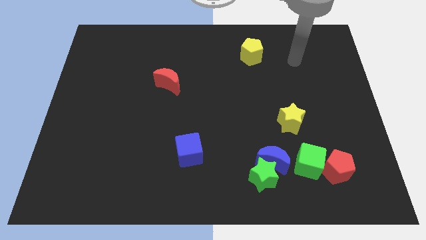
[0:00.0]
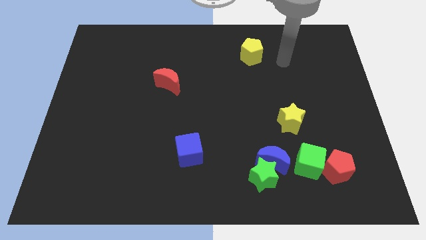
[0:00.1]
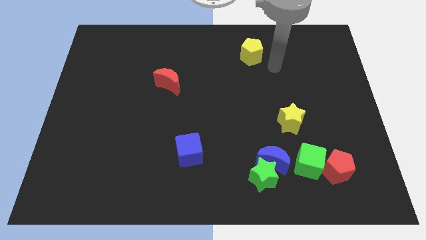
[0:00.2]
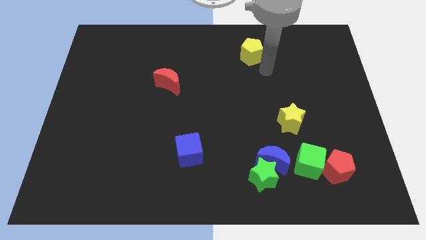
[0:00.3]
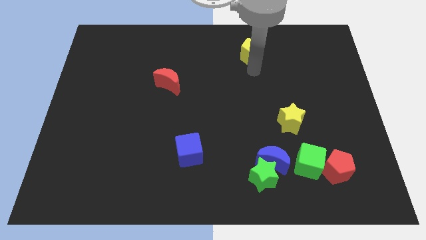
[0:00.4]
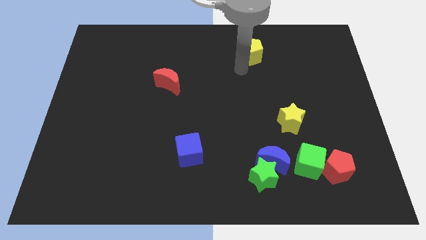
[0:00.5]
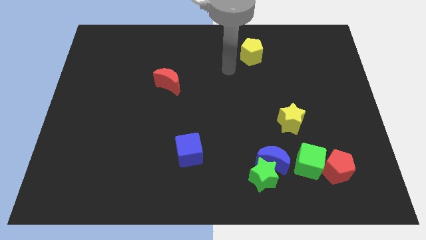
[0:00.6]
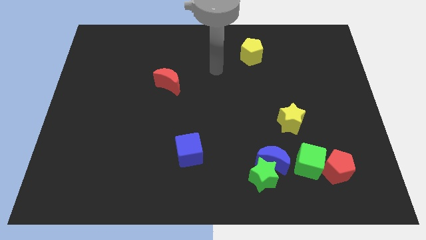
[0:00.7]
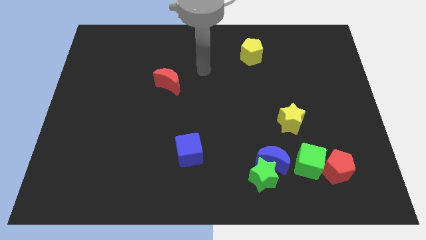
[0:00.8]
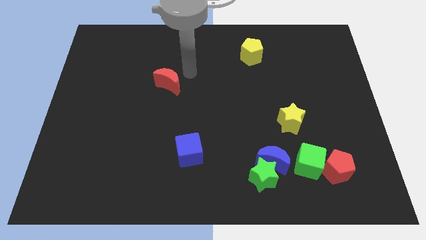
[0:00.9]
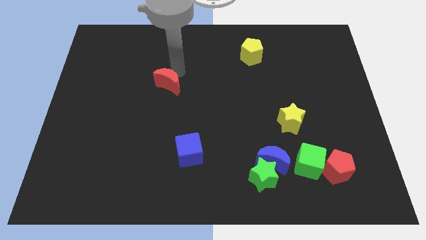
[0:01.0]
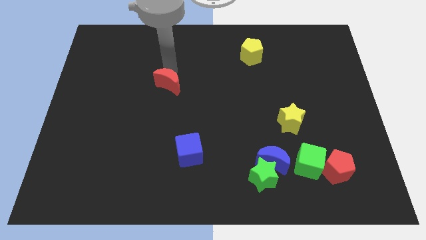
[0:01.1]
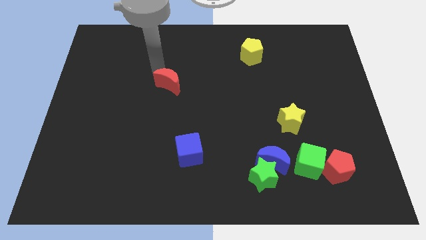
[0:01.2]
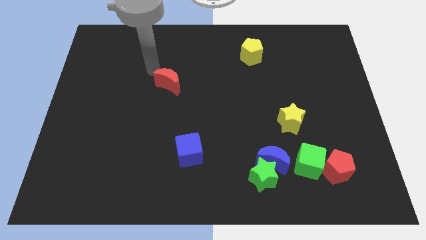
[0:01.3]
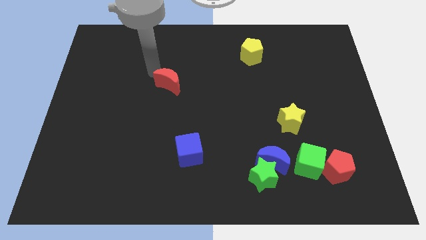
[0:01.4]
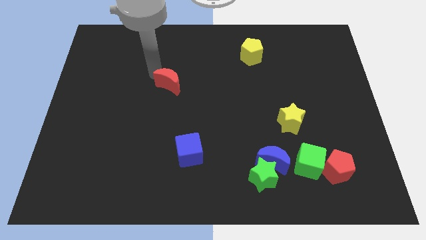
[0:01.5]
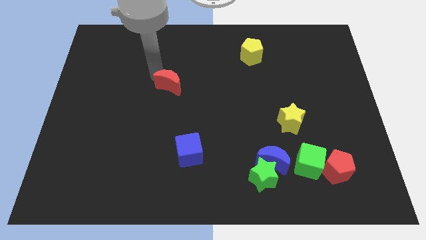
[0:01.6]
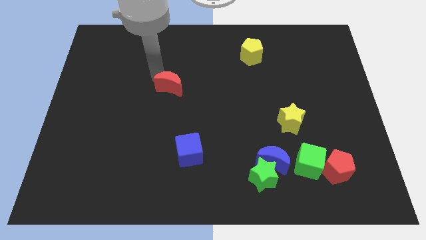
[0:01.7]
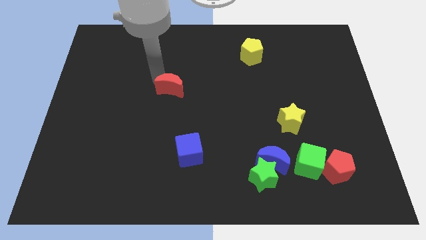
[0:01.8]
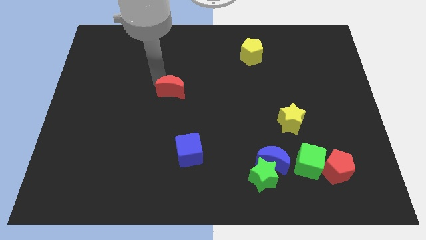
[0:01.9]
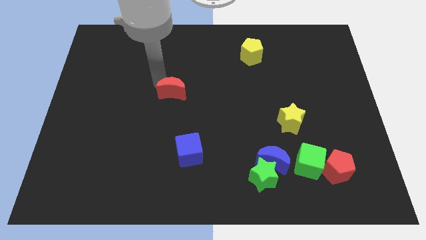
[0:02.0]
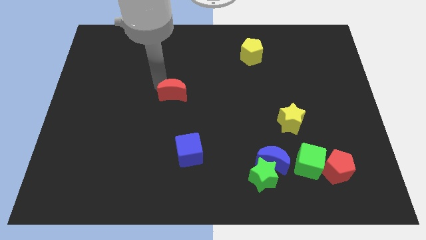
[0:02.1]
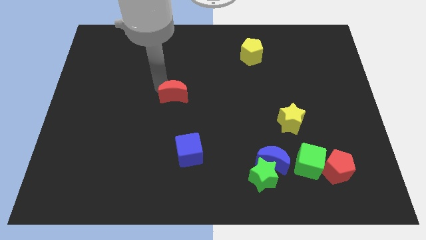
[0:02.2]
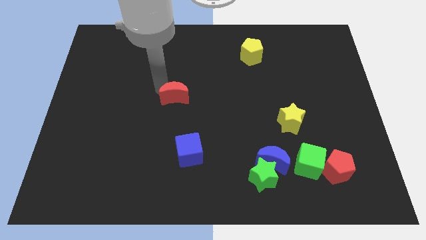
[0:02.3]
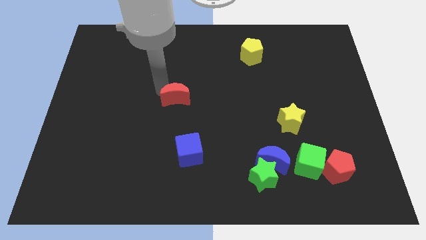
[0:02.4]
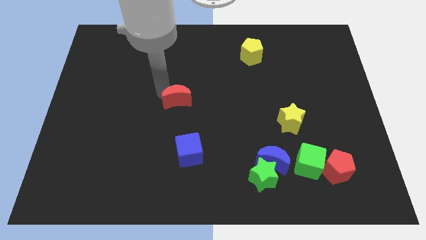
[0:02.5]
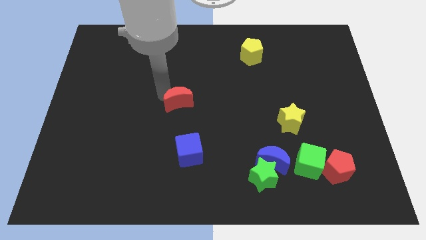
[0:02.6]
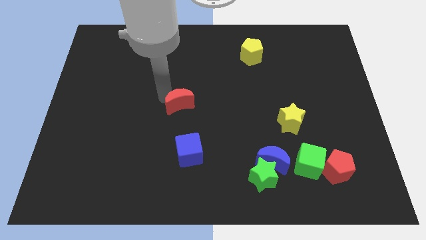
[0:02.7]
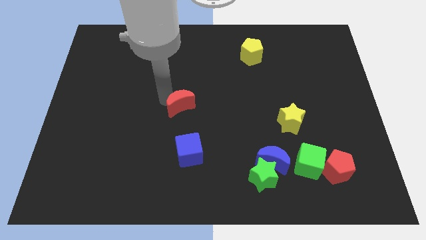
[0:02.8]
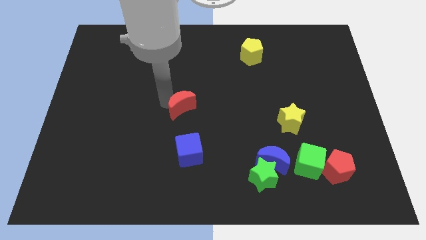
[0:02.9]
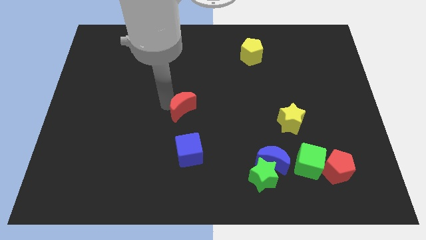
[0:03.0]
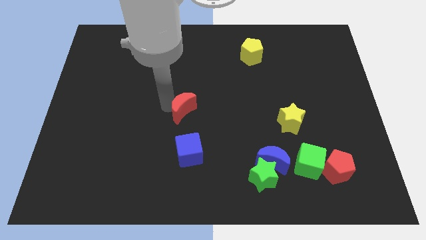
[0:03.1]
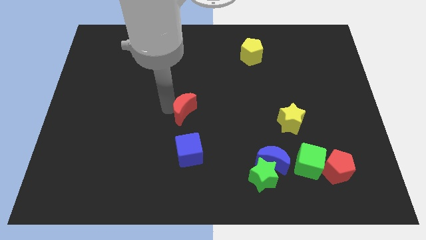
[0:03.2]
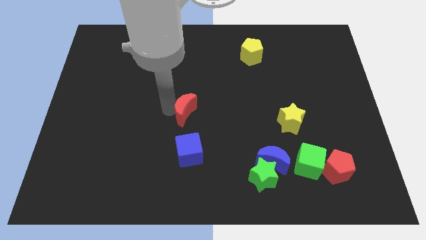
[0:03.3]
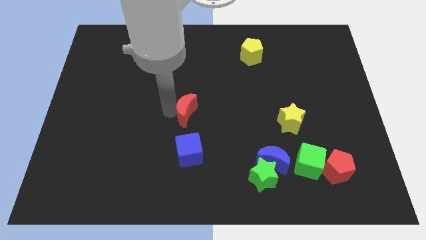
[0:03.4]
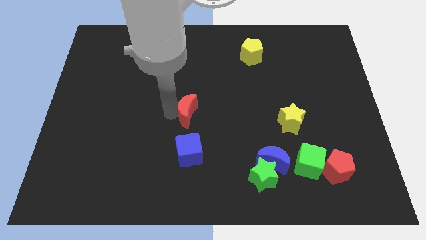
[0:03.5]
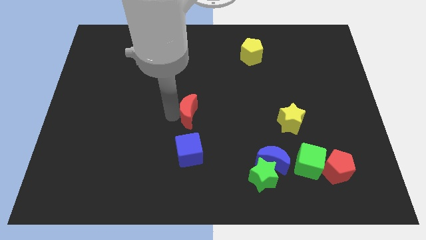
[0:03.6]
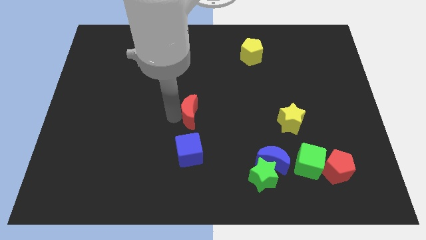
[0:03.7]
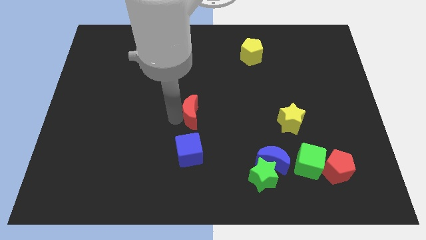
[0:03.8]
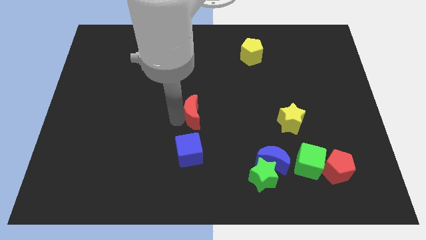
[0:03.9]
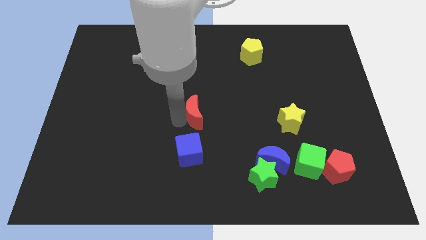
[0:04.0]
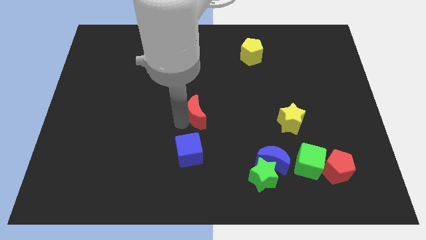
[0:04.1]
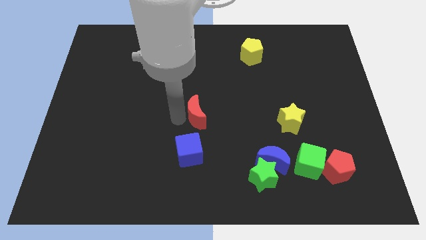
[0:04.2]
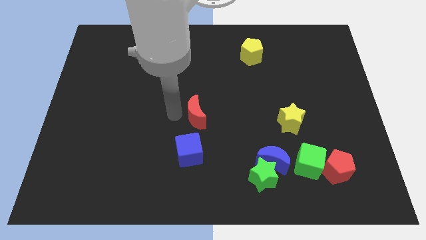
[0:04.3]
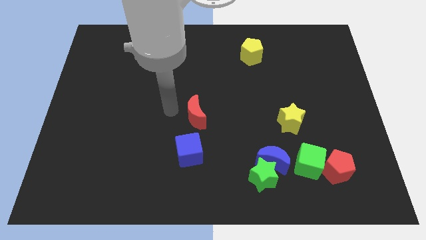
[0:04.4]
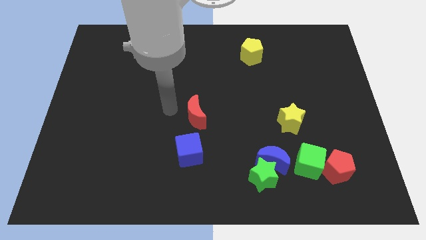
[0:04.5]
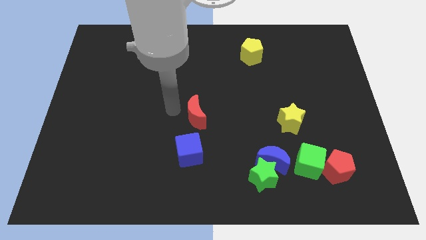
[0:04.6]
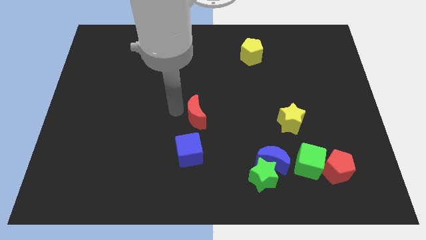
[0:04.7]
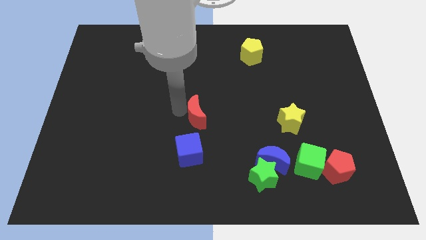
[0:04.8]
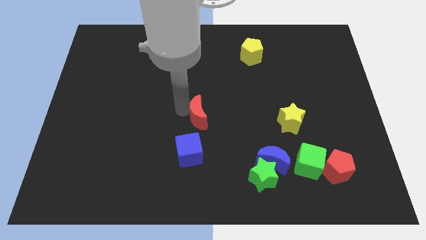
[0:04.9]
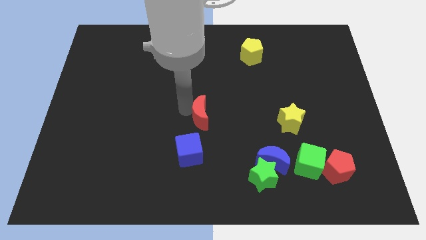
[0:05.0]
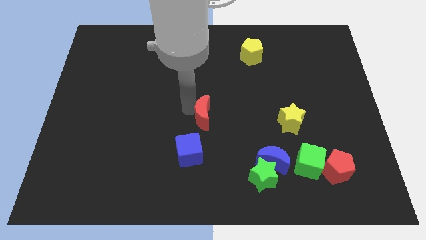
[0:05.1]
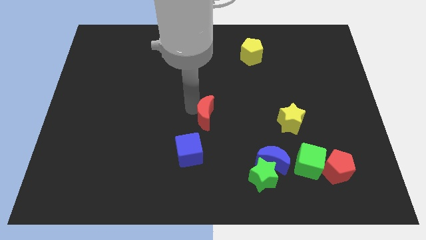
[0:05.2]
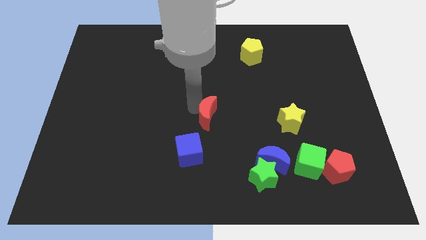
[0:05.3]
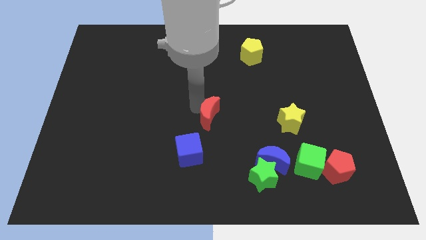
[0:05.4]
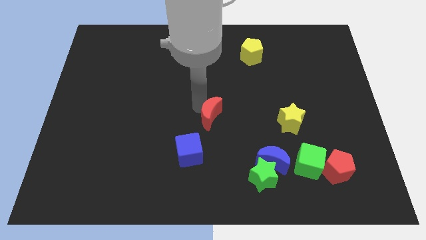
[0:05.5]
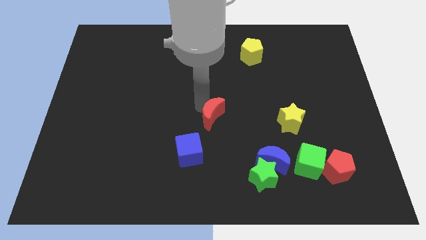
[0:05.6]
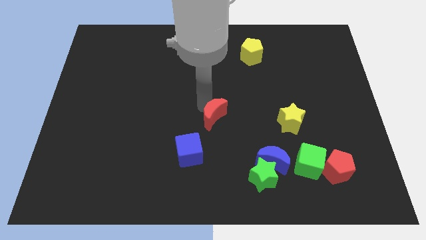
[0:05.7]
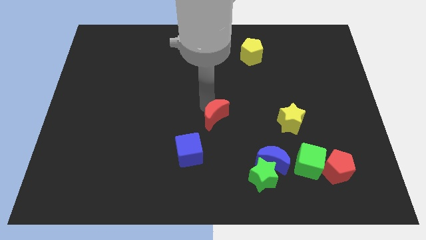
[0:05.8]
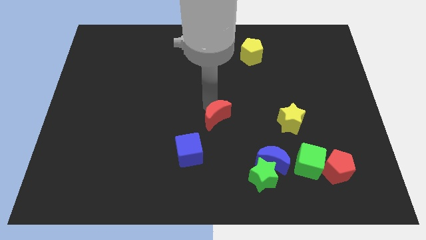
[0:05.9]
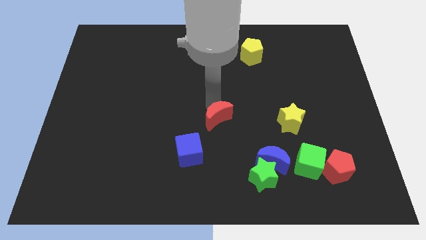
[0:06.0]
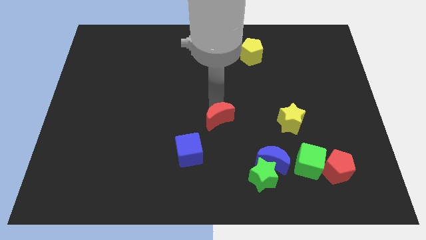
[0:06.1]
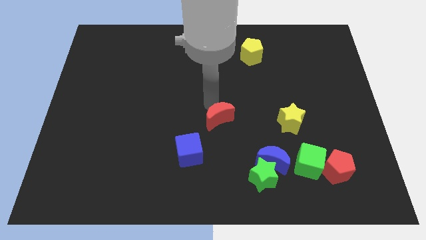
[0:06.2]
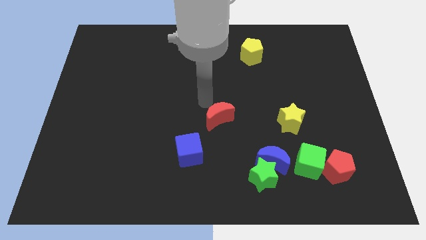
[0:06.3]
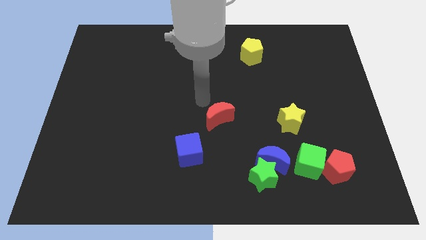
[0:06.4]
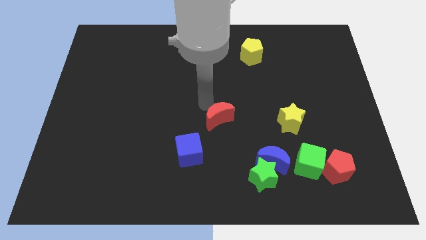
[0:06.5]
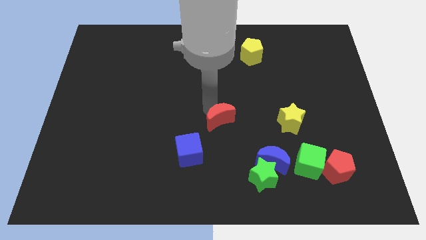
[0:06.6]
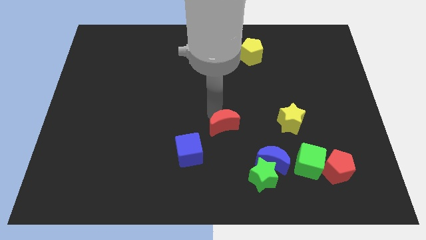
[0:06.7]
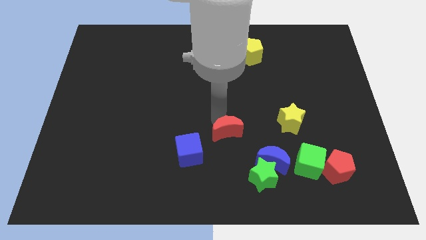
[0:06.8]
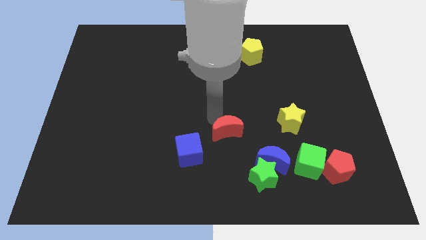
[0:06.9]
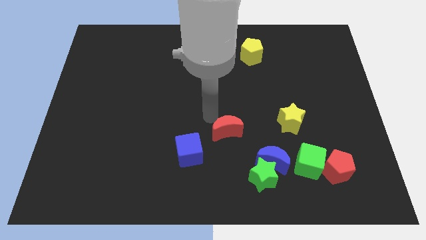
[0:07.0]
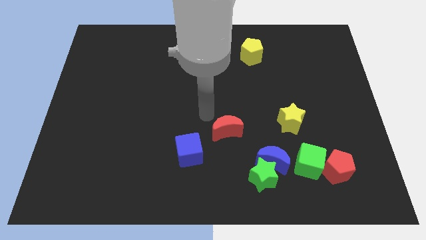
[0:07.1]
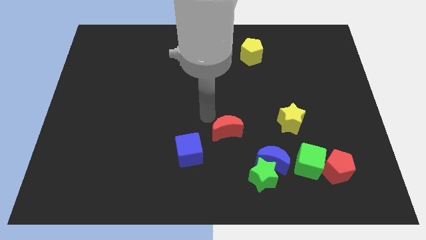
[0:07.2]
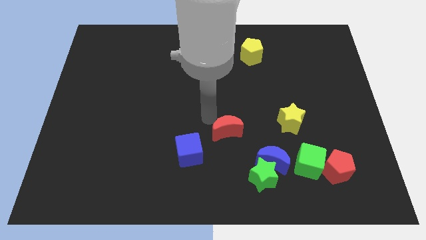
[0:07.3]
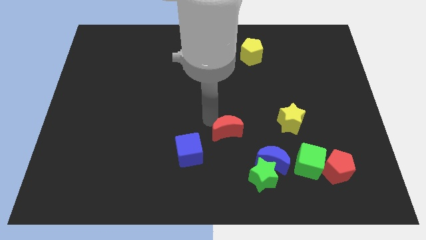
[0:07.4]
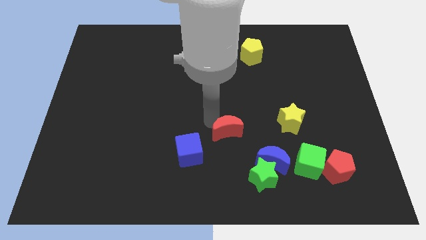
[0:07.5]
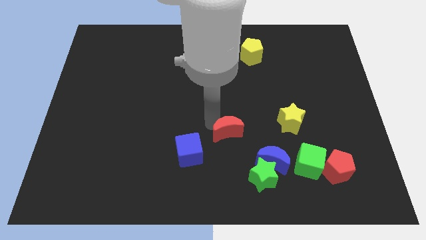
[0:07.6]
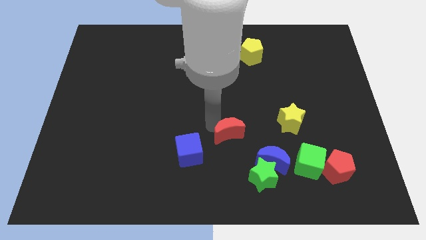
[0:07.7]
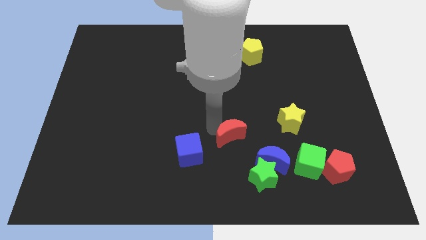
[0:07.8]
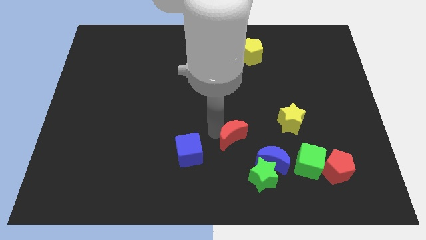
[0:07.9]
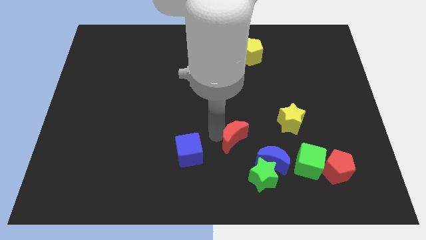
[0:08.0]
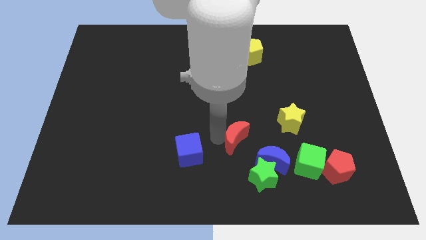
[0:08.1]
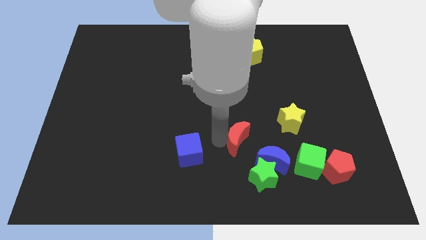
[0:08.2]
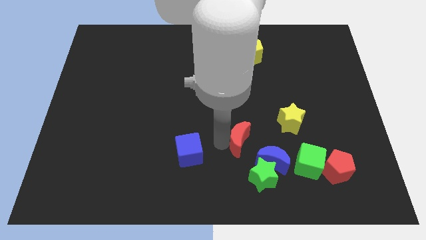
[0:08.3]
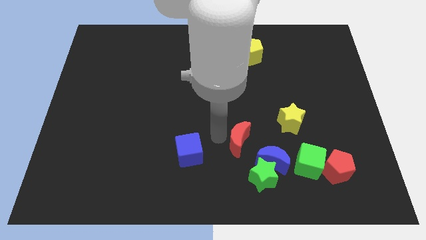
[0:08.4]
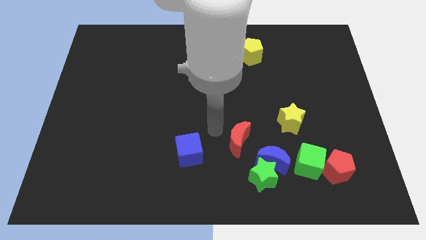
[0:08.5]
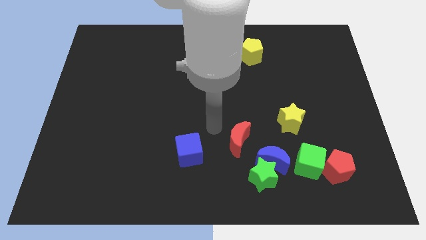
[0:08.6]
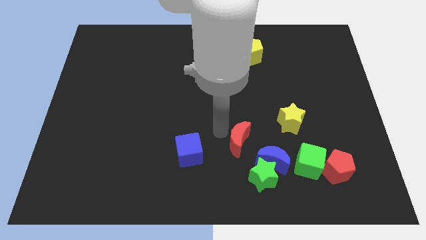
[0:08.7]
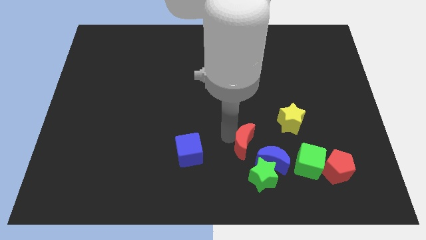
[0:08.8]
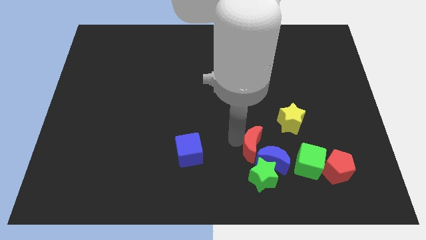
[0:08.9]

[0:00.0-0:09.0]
push the red moon to the blue moon
